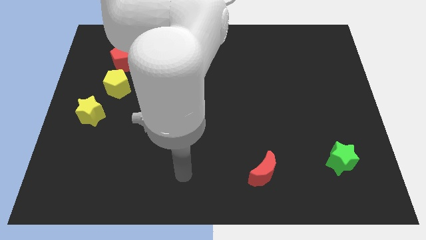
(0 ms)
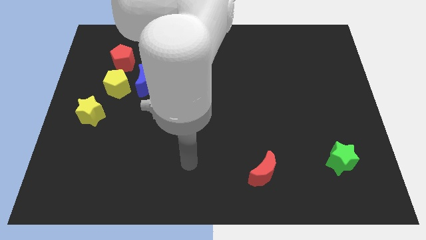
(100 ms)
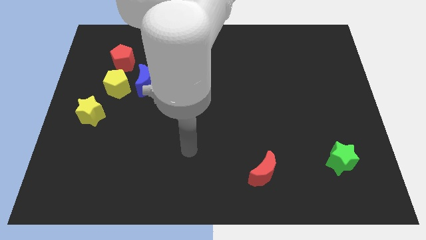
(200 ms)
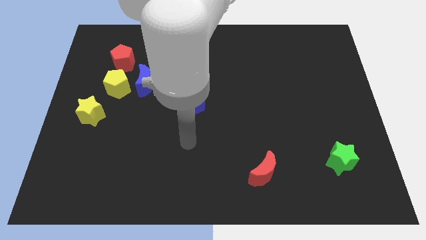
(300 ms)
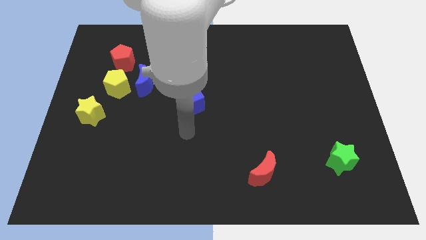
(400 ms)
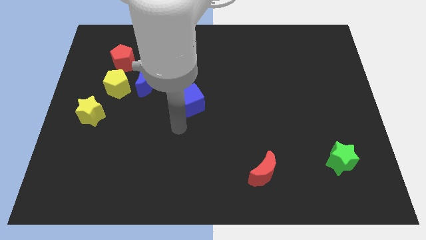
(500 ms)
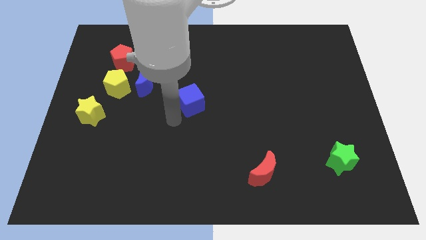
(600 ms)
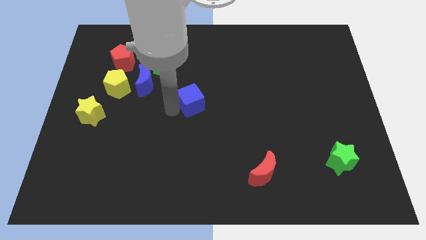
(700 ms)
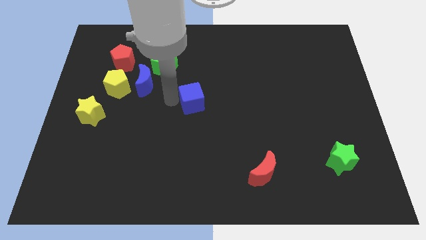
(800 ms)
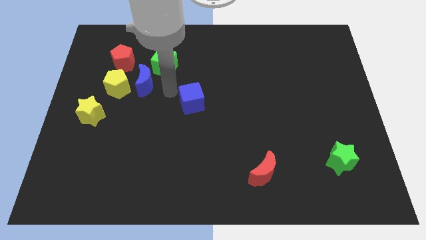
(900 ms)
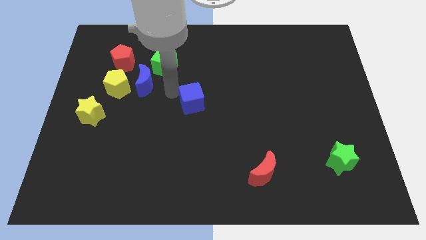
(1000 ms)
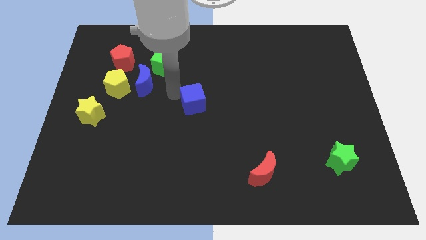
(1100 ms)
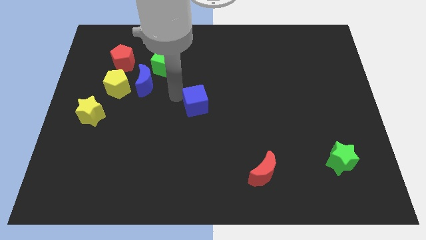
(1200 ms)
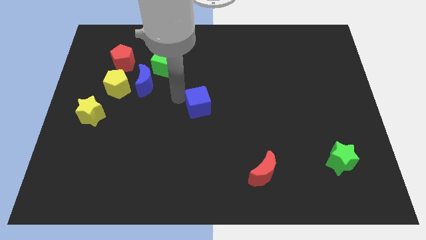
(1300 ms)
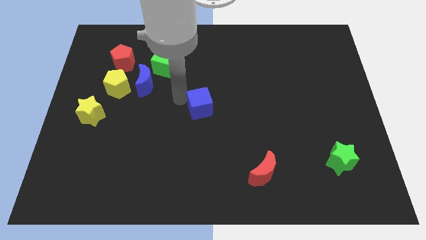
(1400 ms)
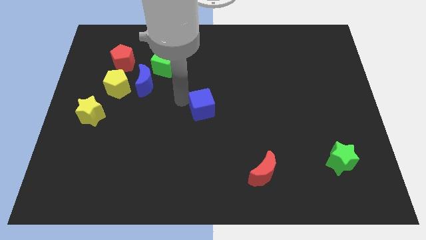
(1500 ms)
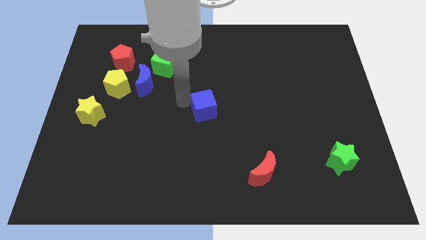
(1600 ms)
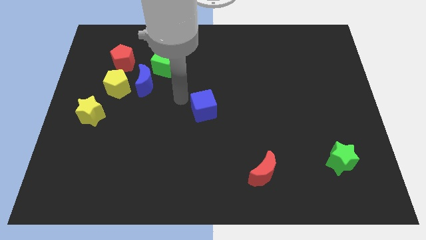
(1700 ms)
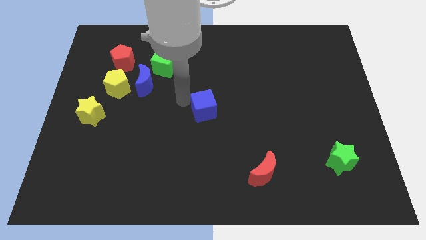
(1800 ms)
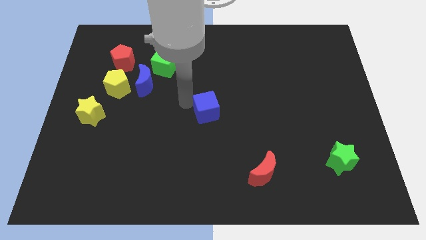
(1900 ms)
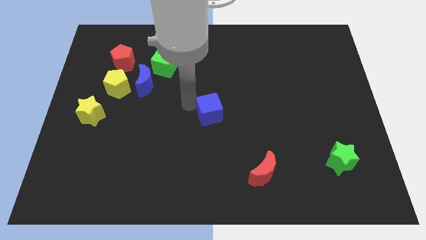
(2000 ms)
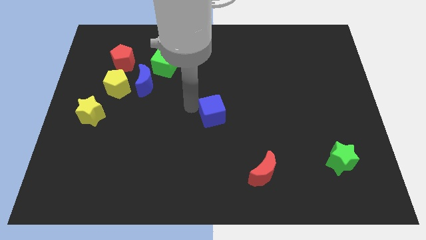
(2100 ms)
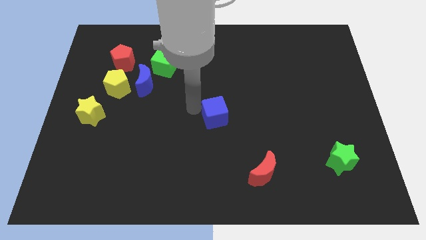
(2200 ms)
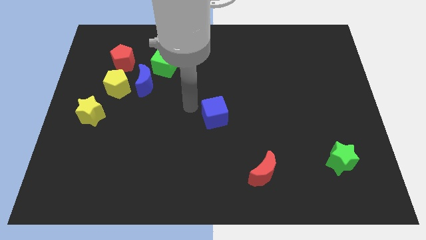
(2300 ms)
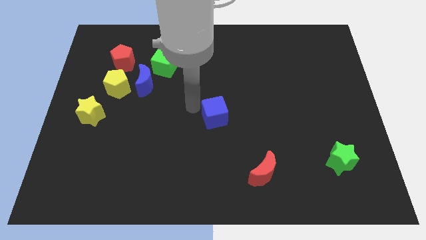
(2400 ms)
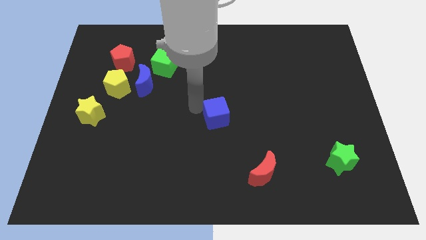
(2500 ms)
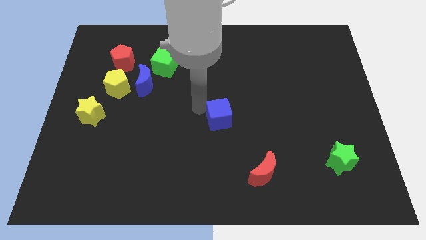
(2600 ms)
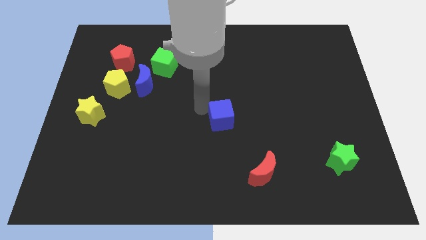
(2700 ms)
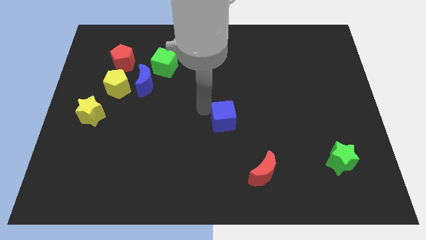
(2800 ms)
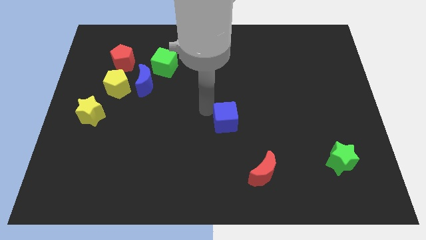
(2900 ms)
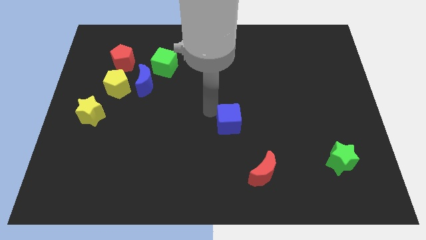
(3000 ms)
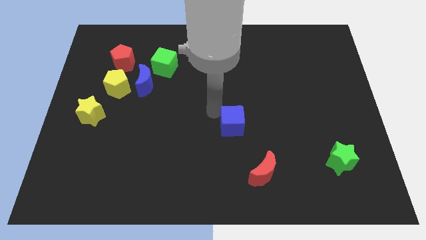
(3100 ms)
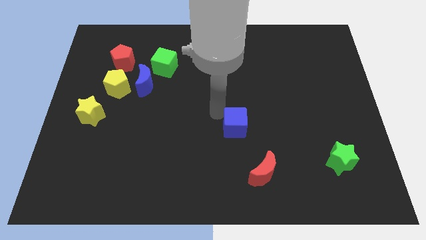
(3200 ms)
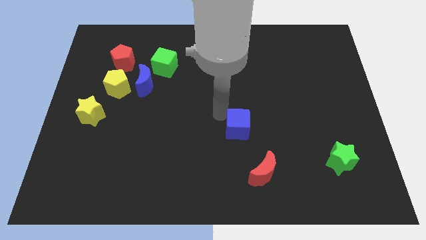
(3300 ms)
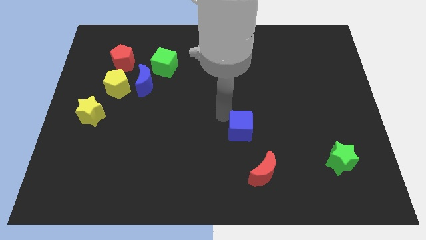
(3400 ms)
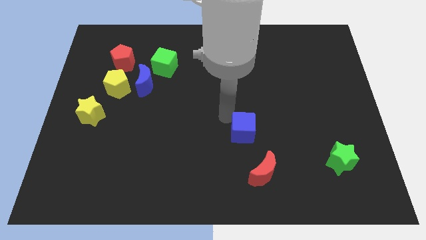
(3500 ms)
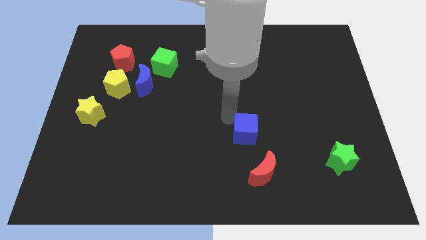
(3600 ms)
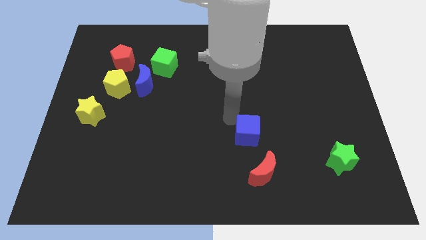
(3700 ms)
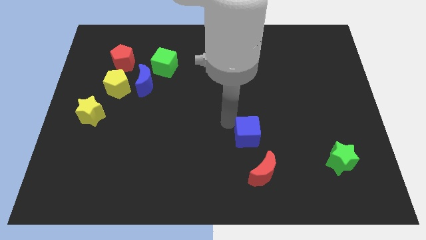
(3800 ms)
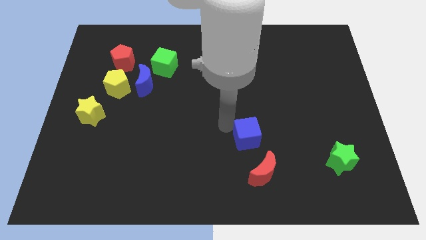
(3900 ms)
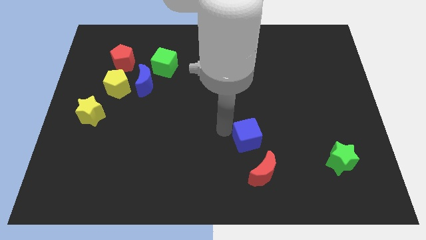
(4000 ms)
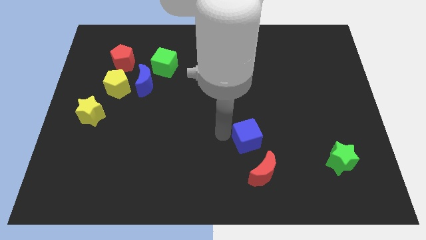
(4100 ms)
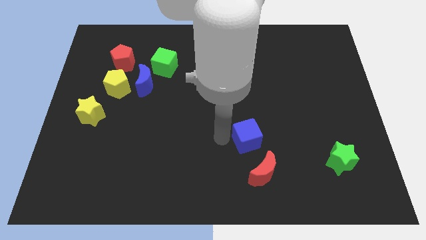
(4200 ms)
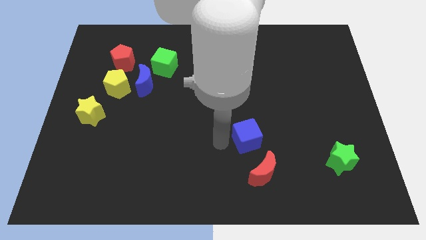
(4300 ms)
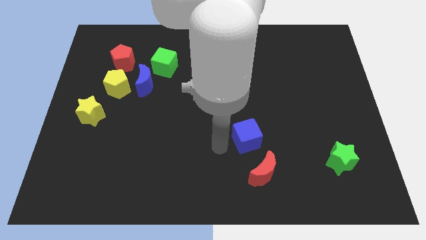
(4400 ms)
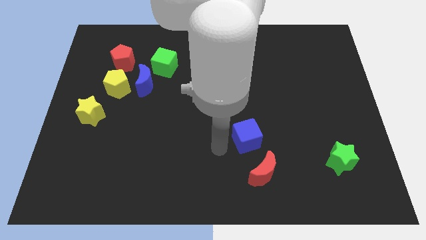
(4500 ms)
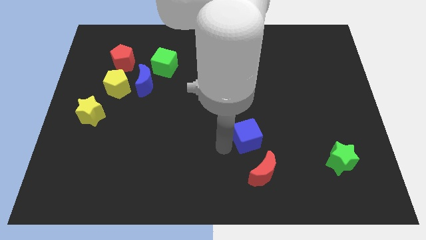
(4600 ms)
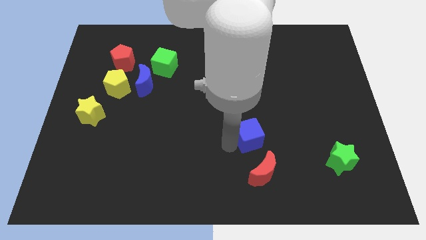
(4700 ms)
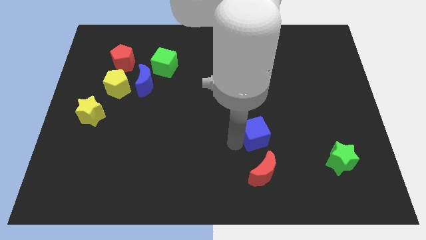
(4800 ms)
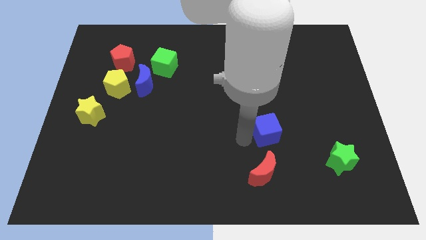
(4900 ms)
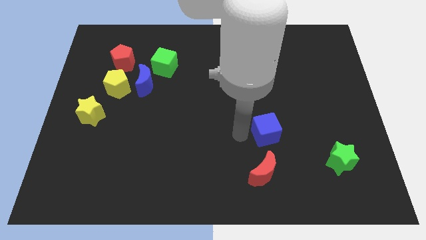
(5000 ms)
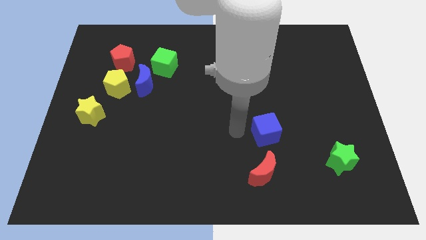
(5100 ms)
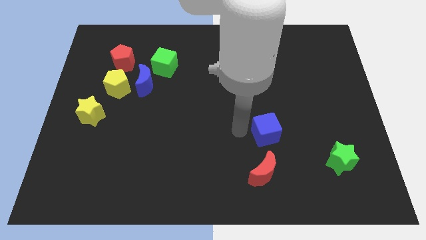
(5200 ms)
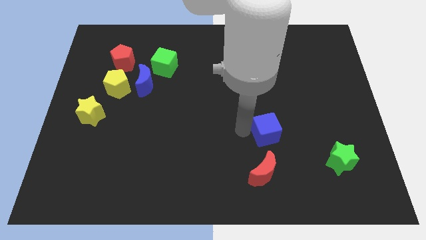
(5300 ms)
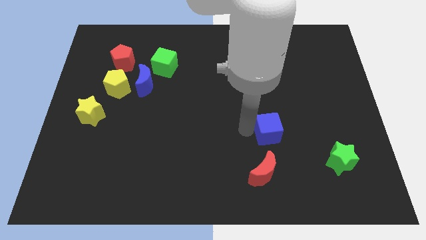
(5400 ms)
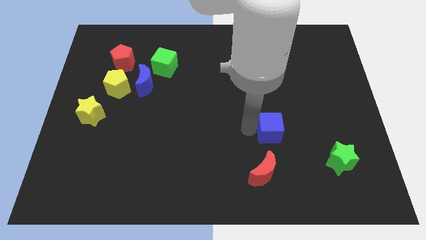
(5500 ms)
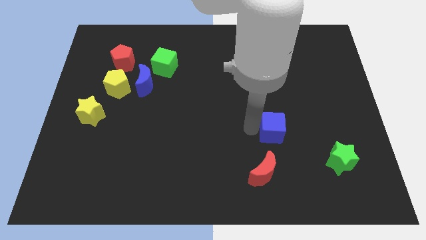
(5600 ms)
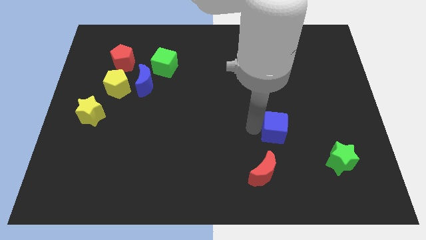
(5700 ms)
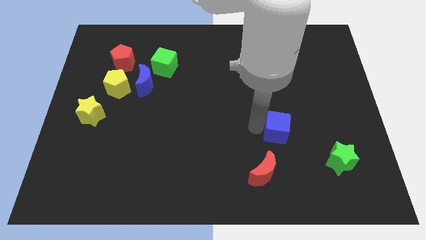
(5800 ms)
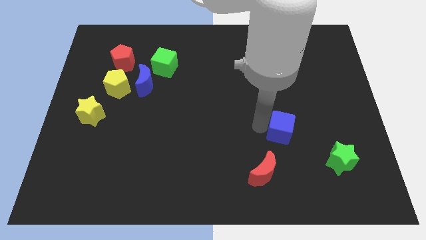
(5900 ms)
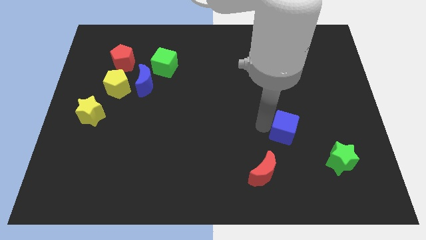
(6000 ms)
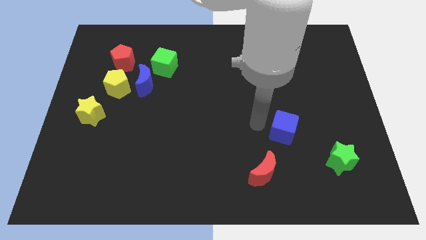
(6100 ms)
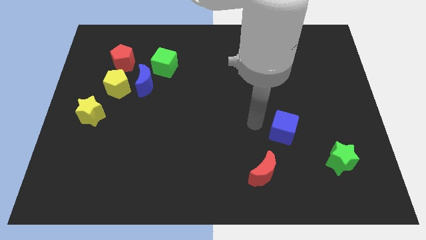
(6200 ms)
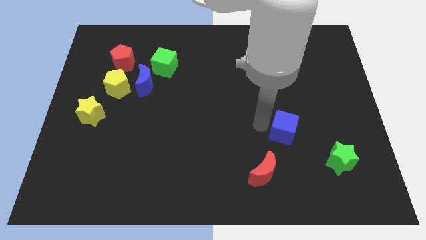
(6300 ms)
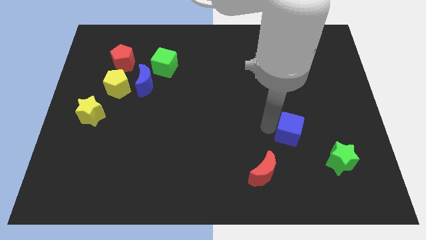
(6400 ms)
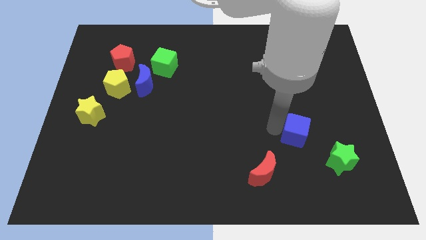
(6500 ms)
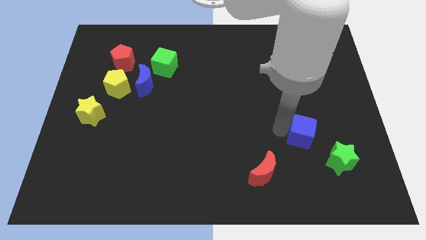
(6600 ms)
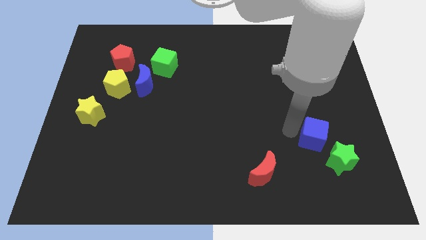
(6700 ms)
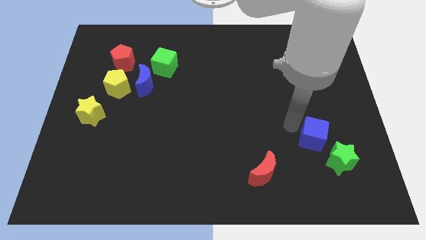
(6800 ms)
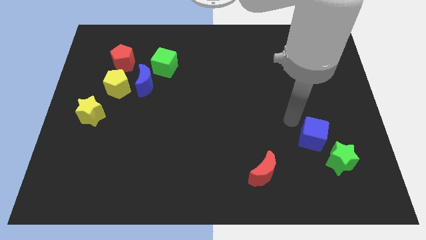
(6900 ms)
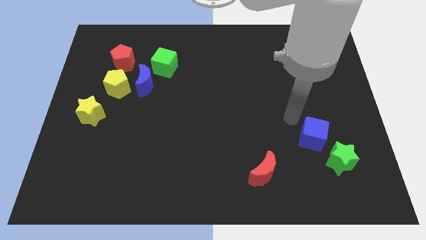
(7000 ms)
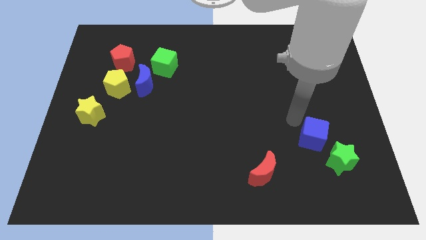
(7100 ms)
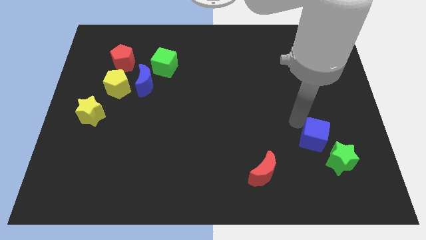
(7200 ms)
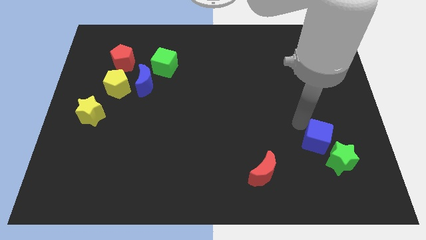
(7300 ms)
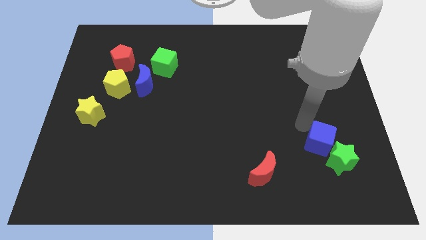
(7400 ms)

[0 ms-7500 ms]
put the blue cube close to the green star
